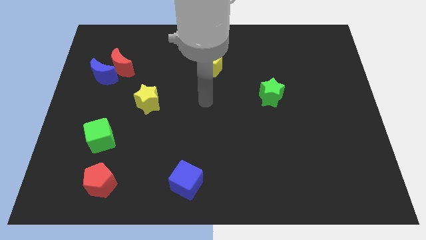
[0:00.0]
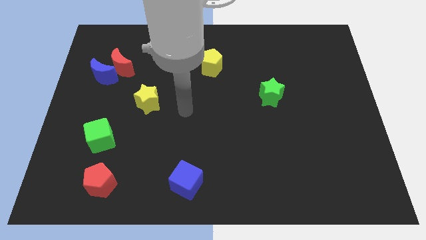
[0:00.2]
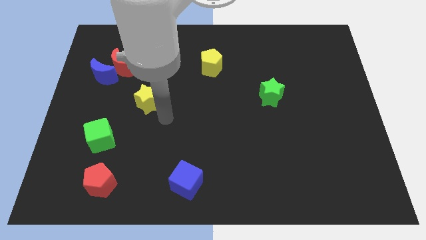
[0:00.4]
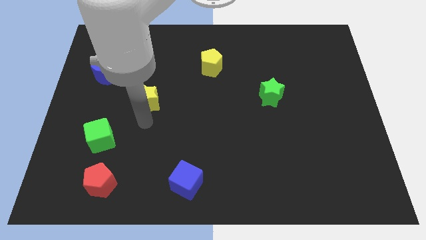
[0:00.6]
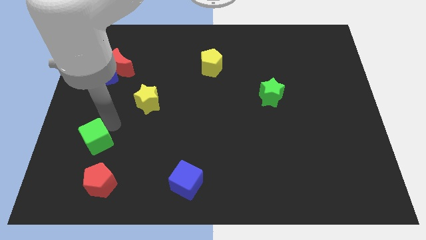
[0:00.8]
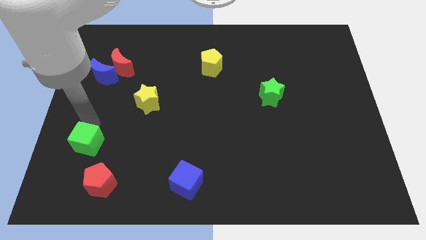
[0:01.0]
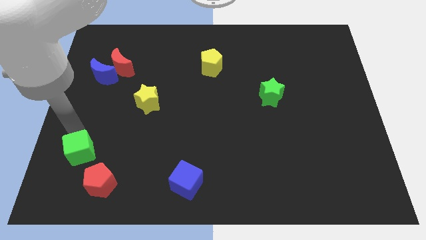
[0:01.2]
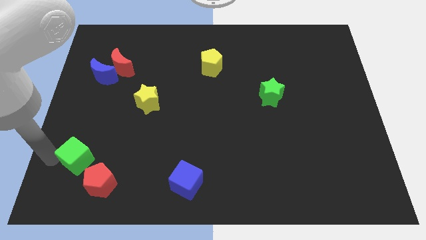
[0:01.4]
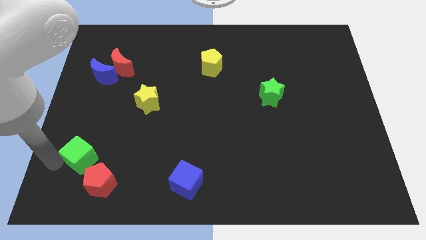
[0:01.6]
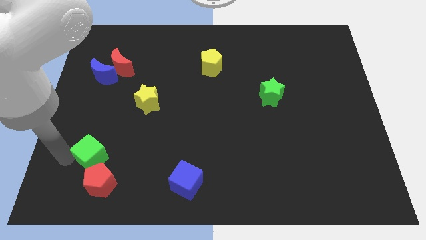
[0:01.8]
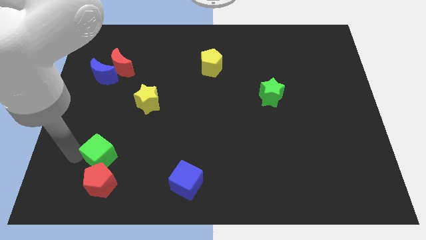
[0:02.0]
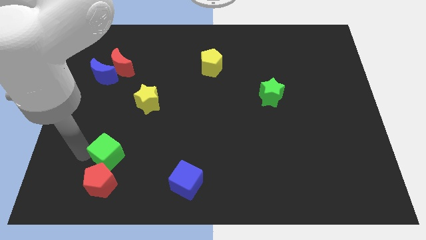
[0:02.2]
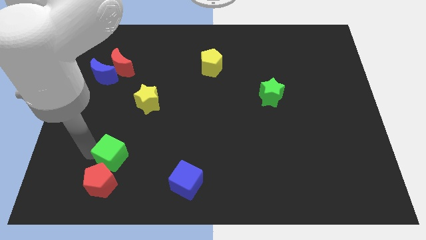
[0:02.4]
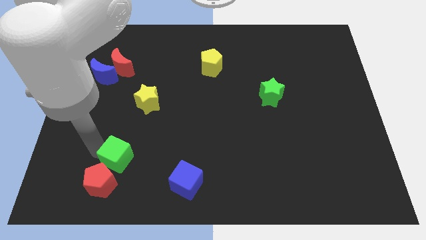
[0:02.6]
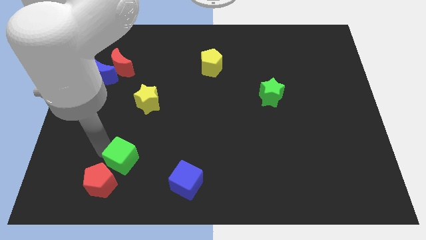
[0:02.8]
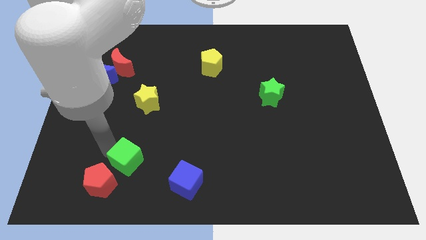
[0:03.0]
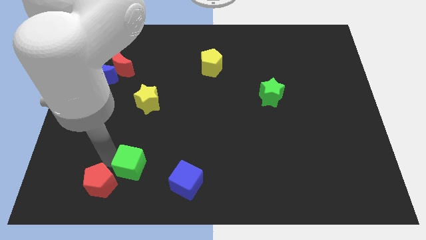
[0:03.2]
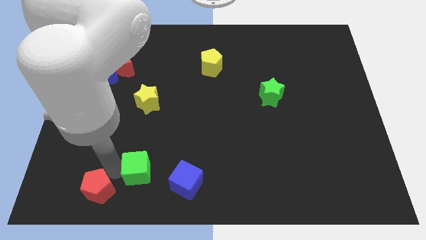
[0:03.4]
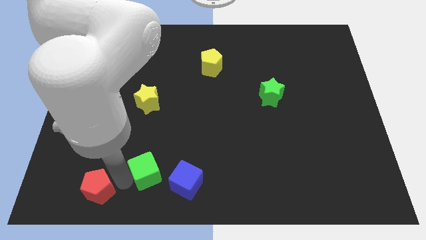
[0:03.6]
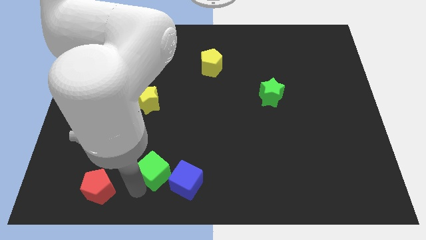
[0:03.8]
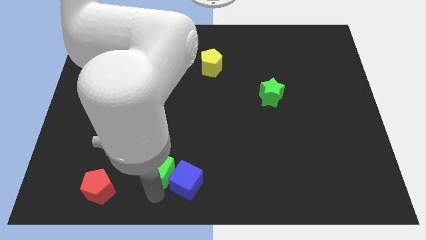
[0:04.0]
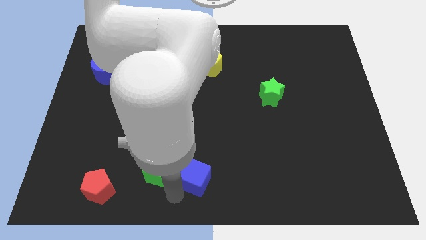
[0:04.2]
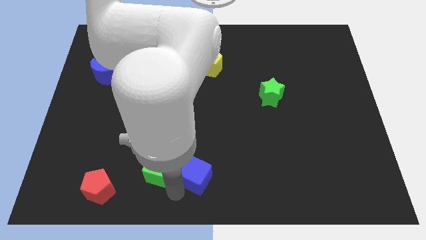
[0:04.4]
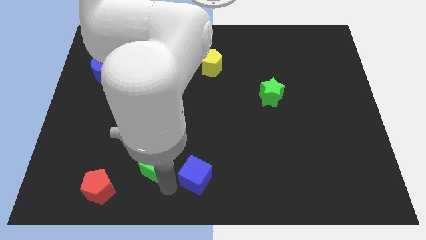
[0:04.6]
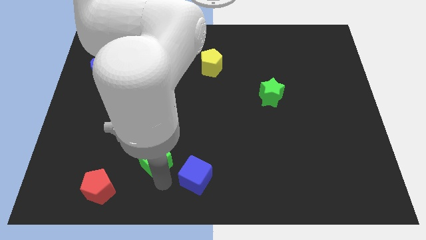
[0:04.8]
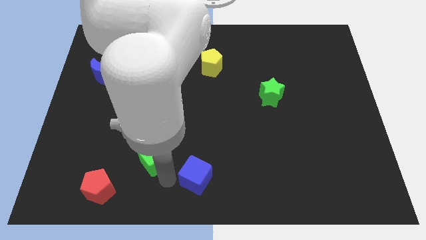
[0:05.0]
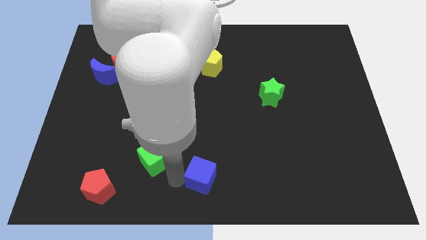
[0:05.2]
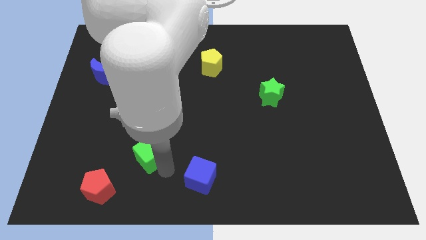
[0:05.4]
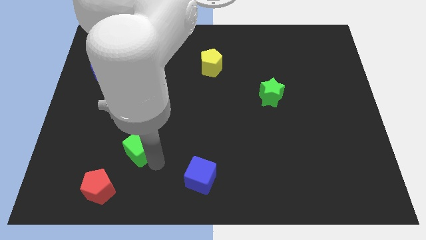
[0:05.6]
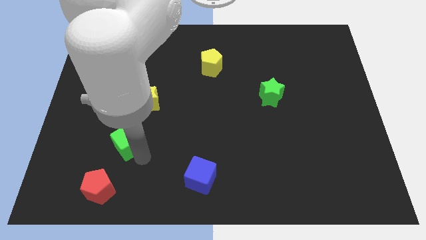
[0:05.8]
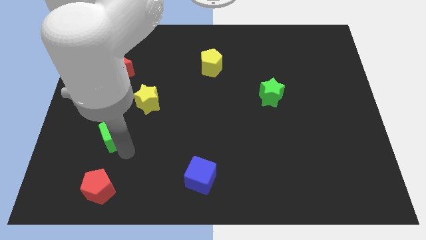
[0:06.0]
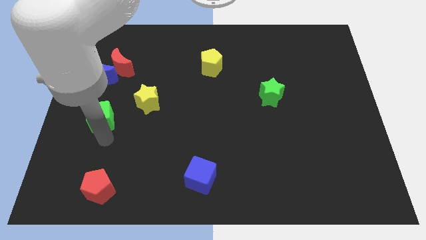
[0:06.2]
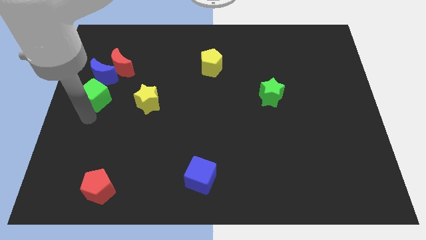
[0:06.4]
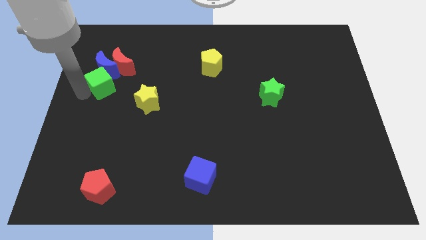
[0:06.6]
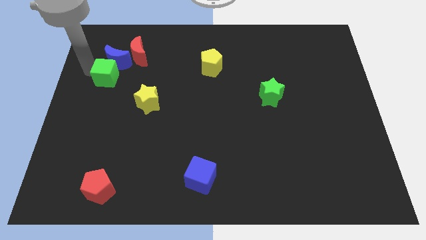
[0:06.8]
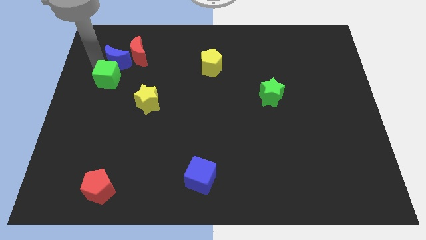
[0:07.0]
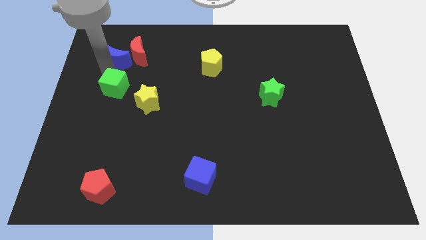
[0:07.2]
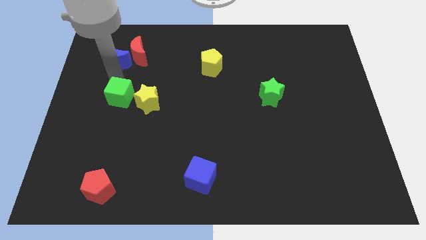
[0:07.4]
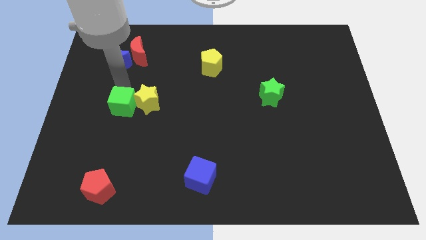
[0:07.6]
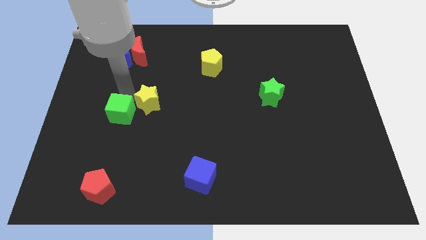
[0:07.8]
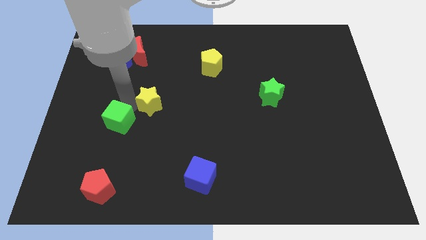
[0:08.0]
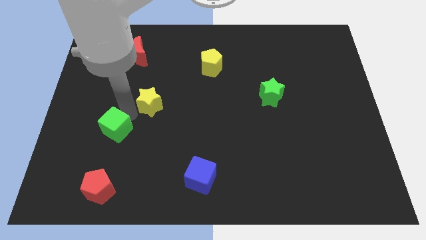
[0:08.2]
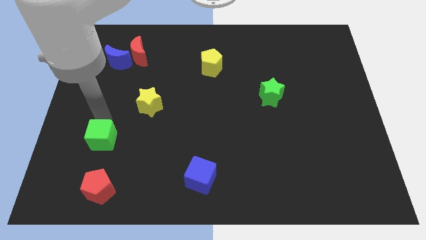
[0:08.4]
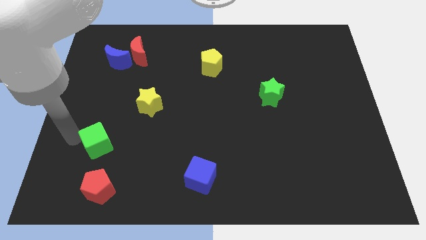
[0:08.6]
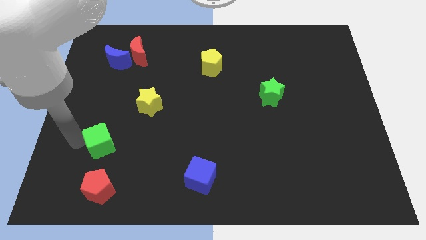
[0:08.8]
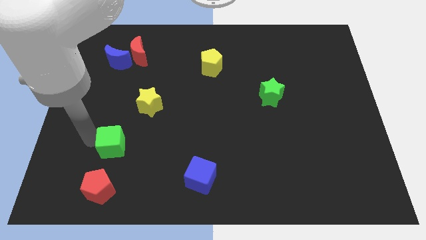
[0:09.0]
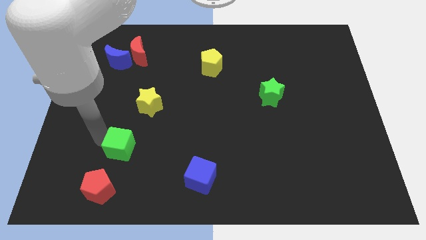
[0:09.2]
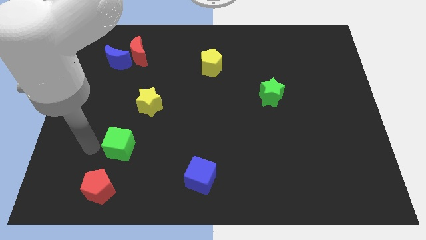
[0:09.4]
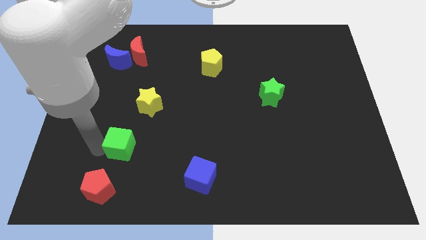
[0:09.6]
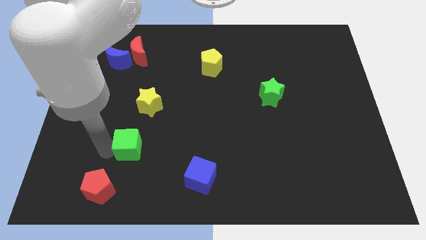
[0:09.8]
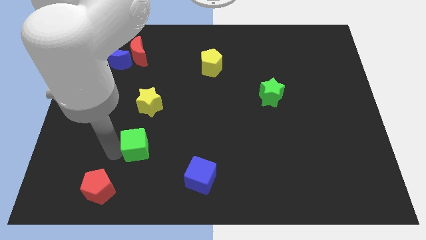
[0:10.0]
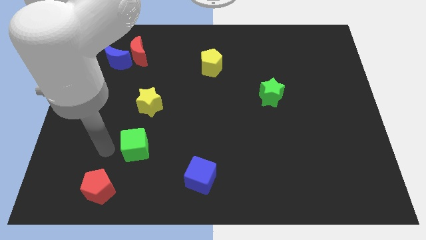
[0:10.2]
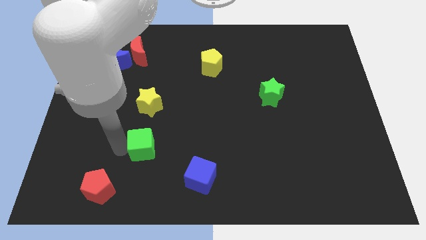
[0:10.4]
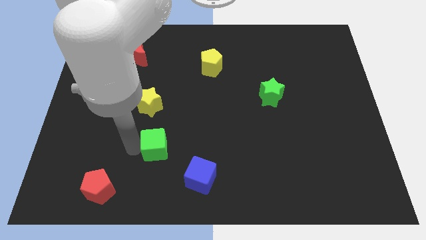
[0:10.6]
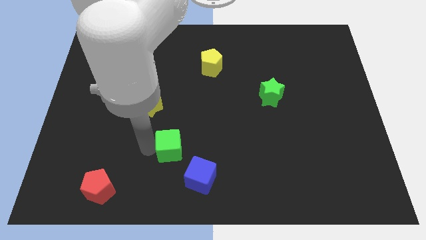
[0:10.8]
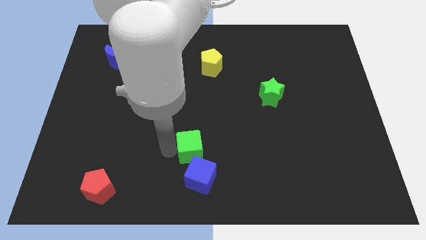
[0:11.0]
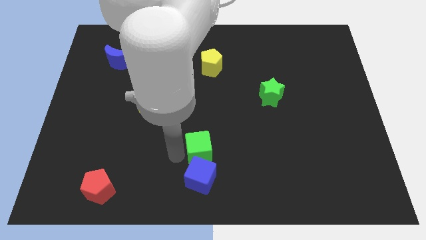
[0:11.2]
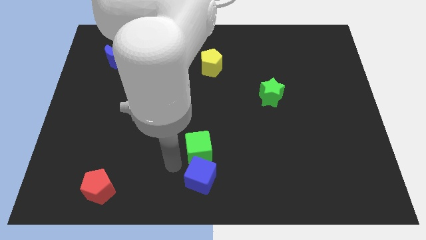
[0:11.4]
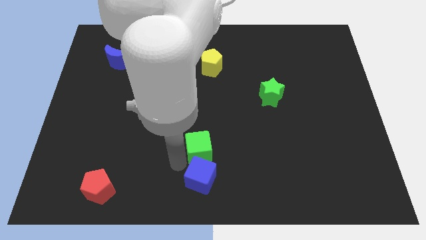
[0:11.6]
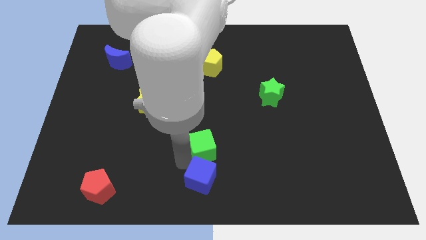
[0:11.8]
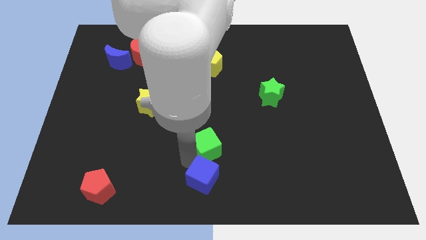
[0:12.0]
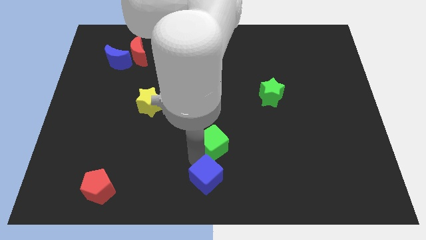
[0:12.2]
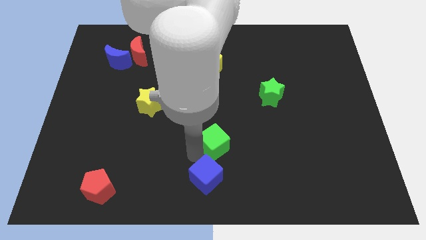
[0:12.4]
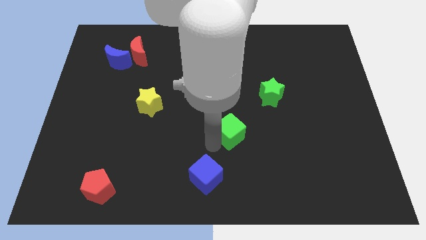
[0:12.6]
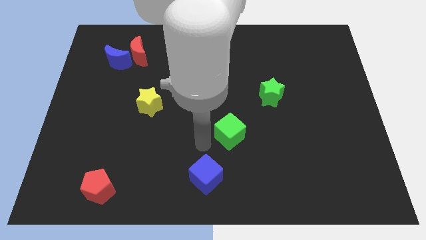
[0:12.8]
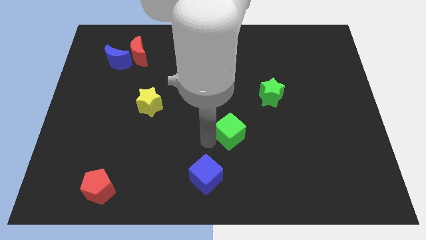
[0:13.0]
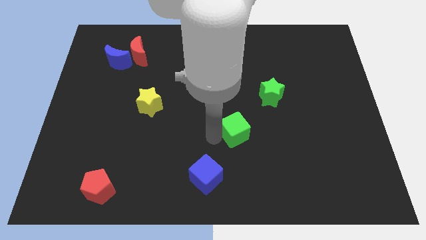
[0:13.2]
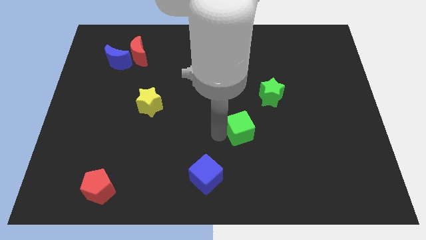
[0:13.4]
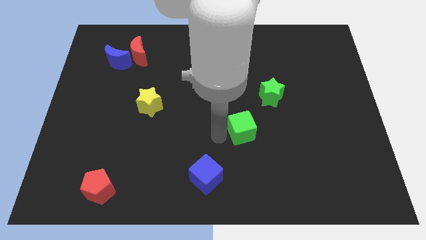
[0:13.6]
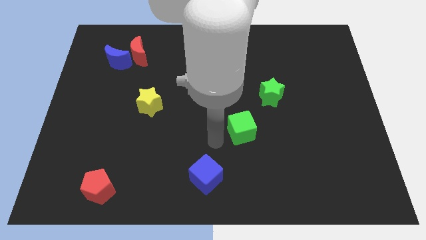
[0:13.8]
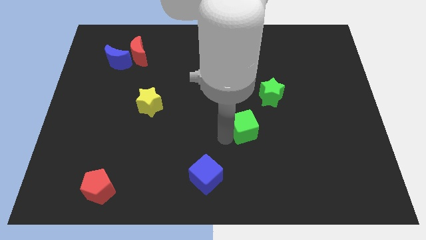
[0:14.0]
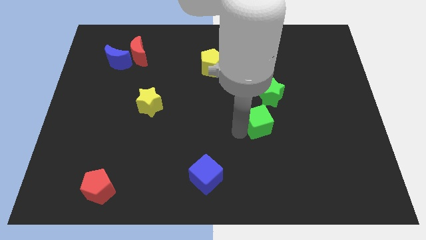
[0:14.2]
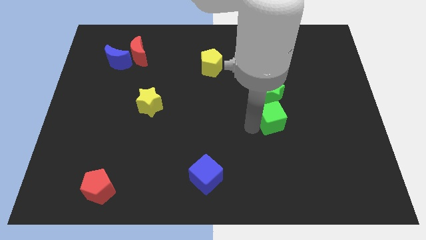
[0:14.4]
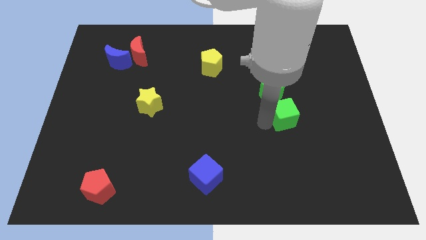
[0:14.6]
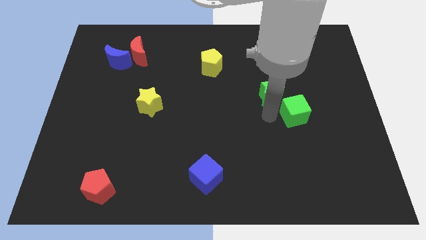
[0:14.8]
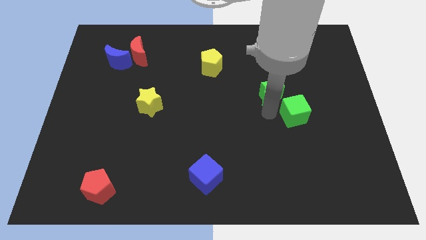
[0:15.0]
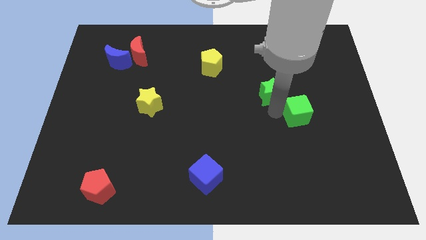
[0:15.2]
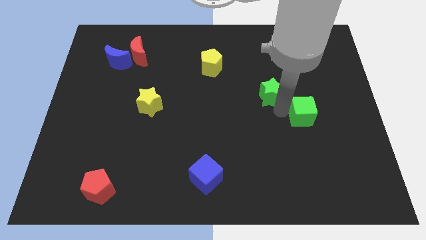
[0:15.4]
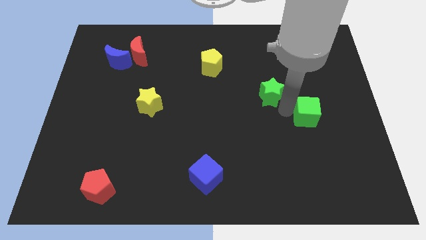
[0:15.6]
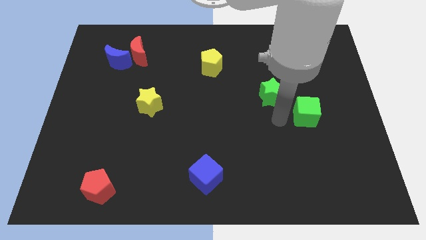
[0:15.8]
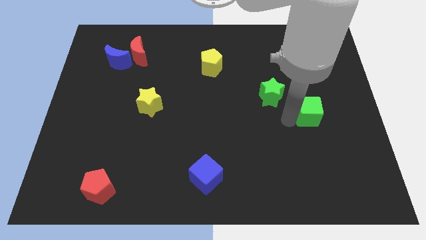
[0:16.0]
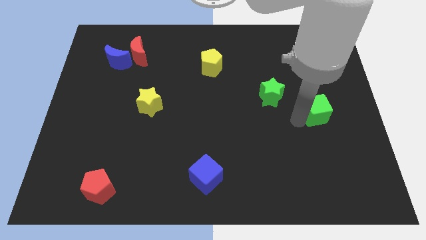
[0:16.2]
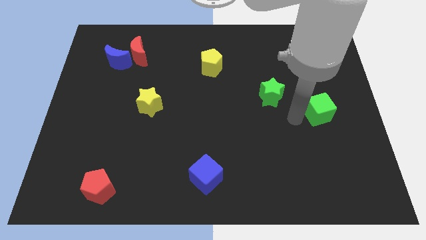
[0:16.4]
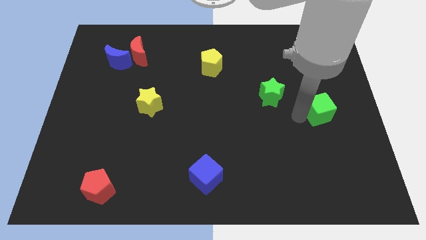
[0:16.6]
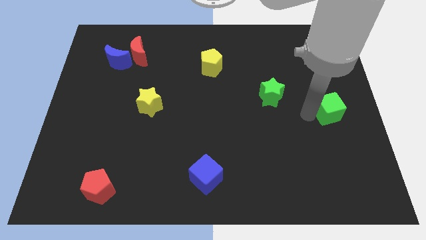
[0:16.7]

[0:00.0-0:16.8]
put the green cube to the right side
